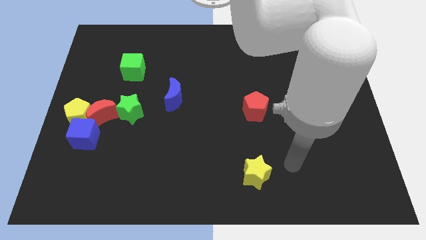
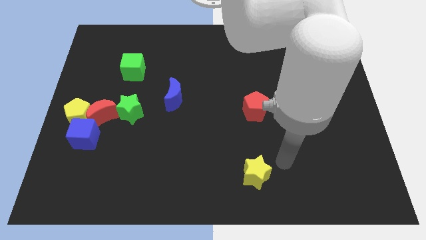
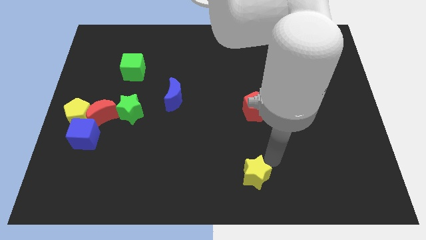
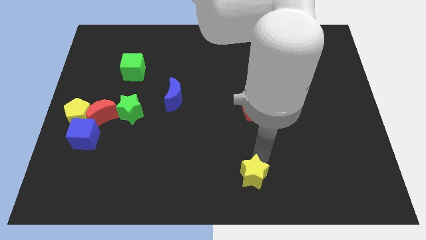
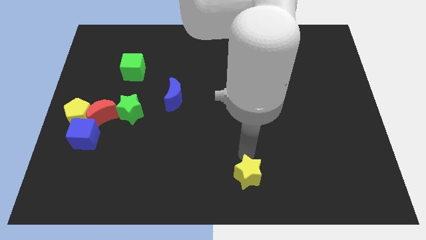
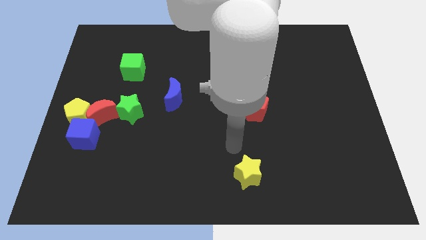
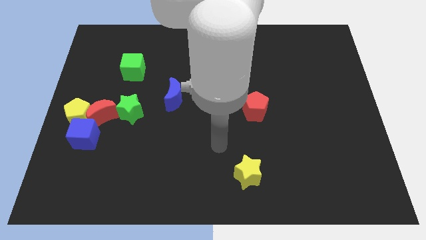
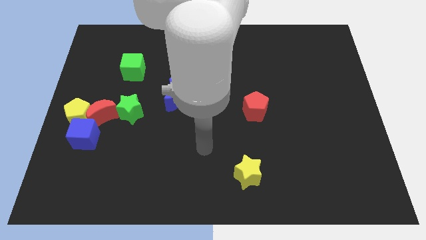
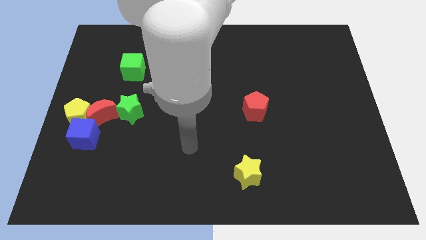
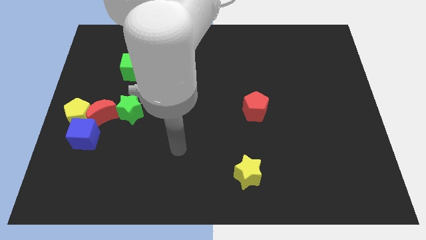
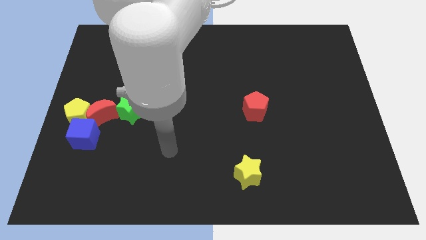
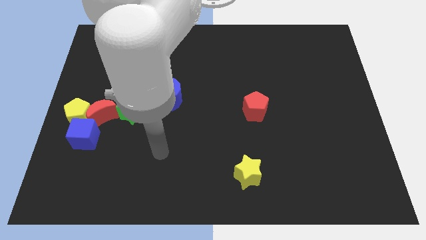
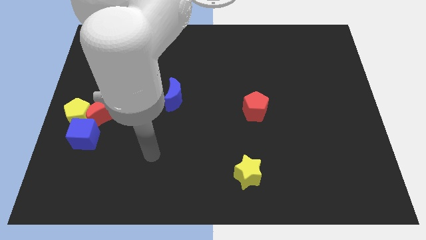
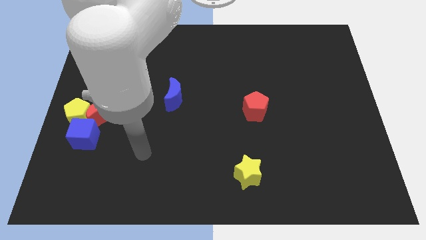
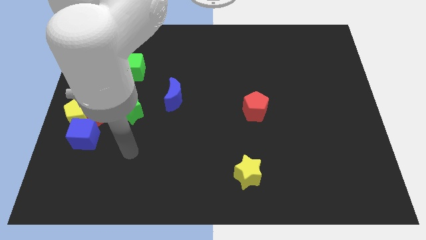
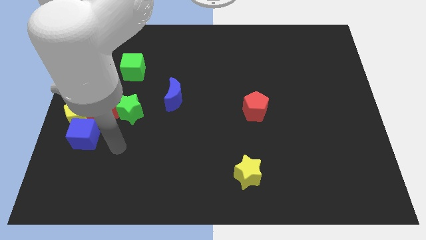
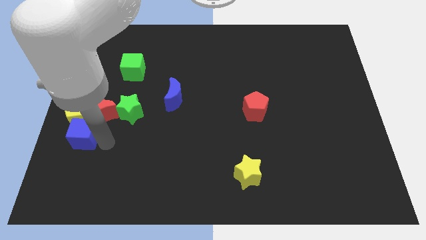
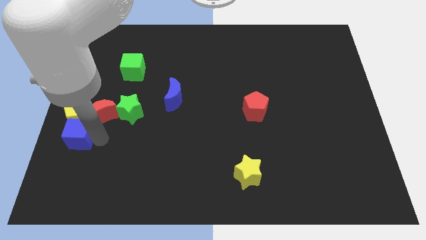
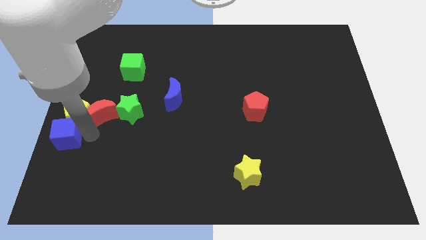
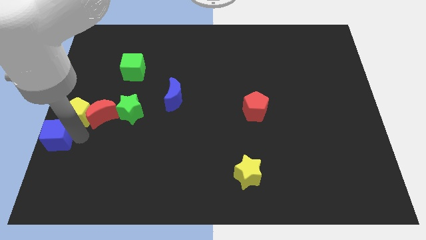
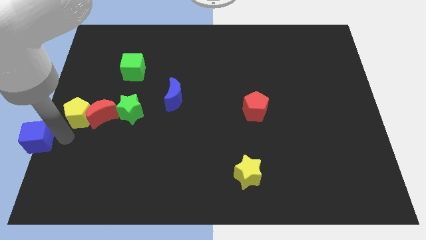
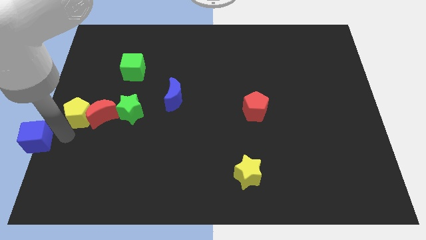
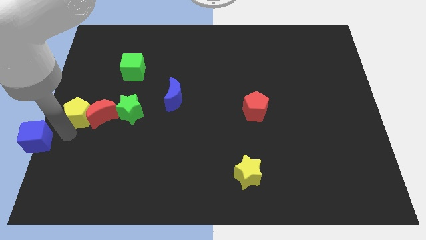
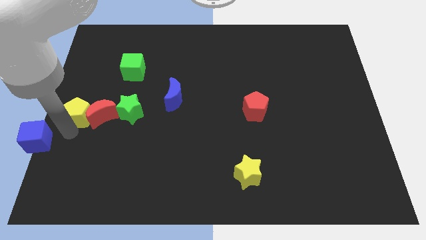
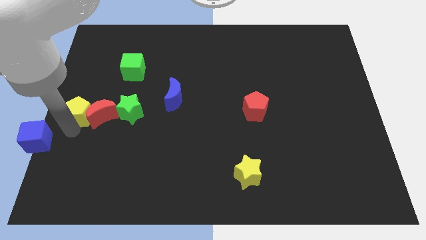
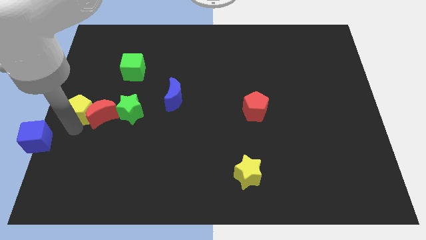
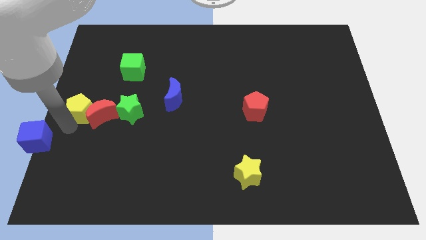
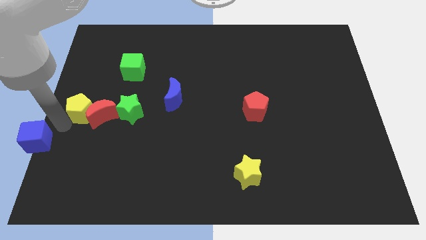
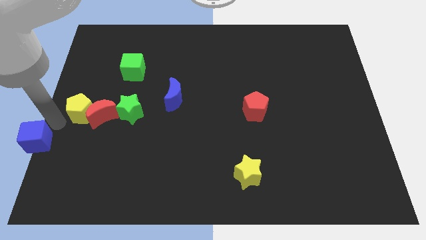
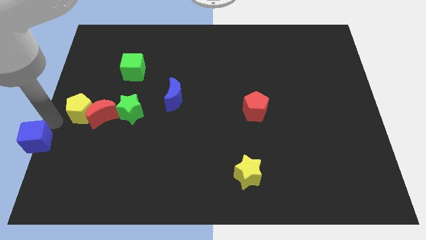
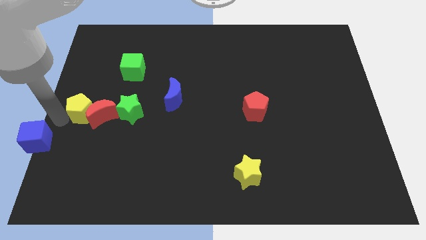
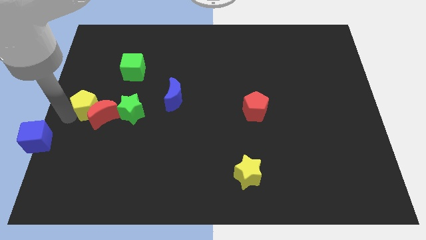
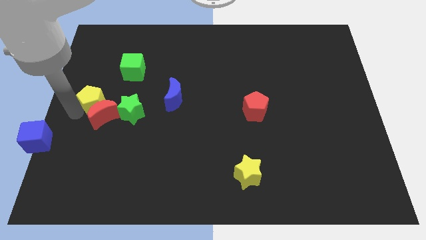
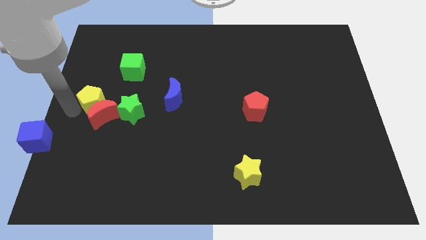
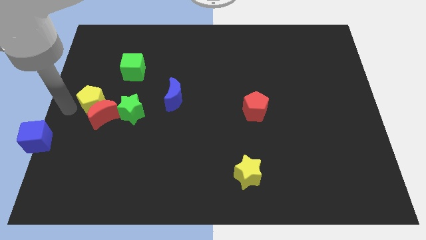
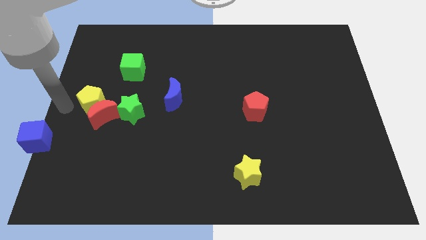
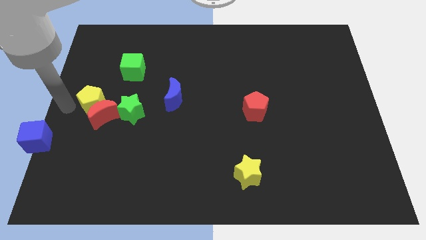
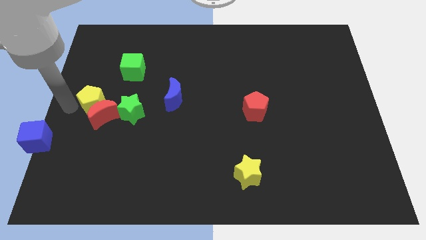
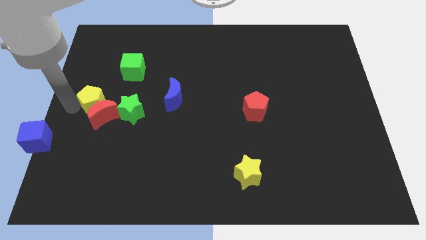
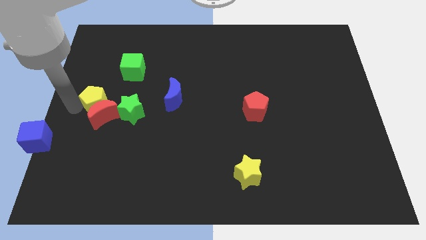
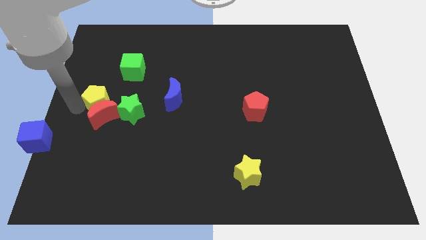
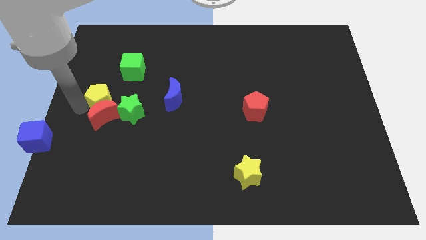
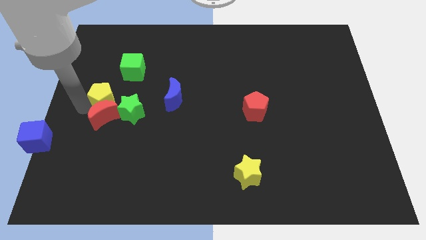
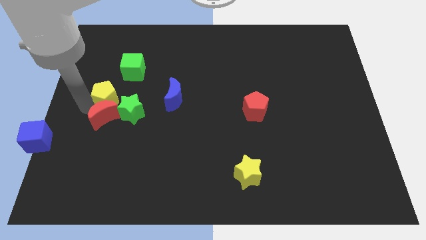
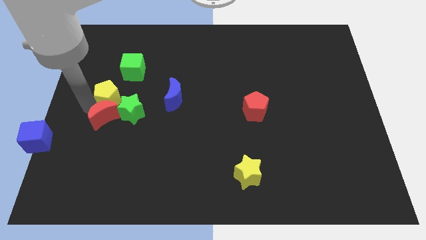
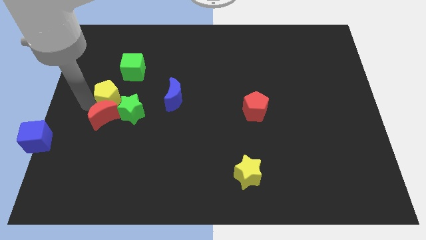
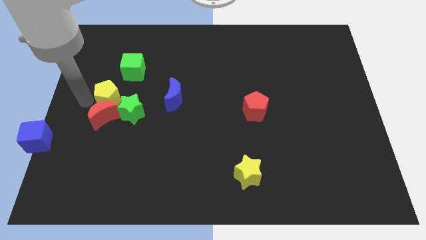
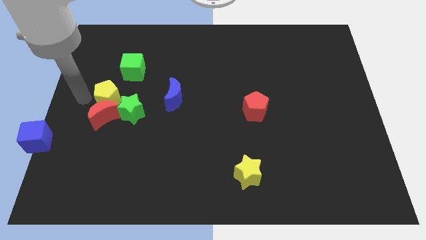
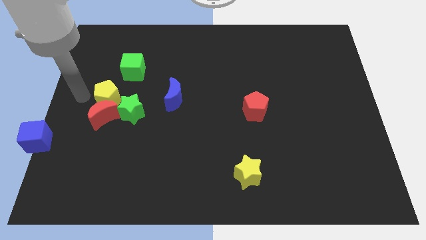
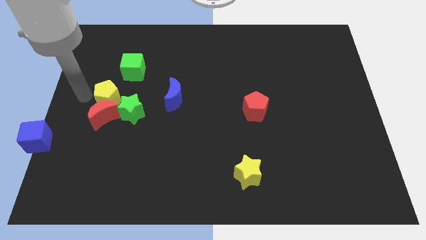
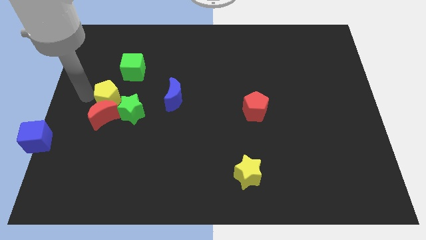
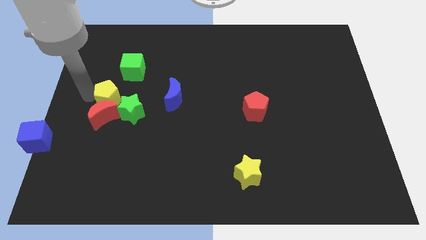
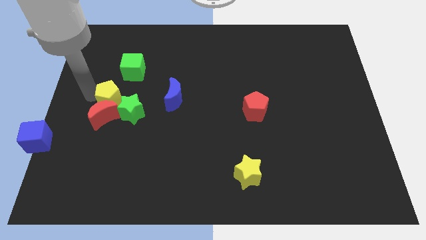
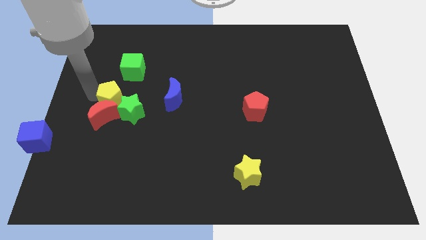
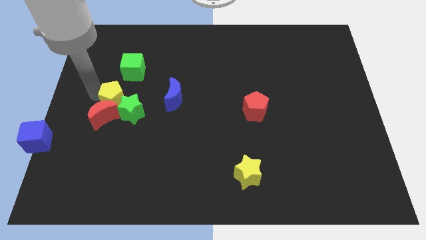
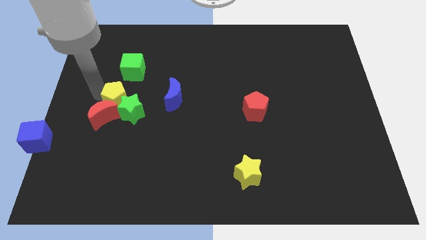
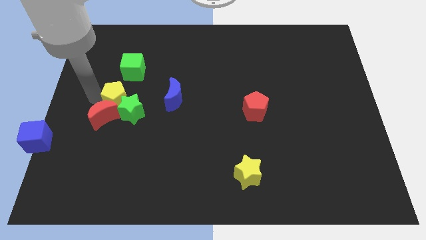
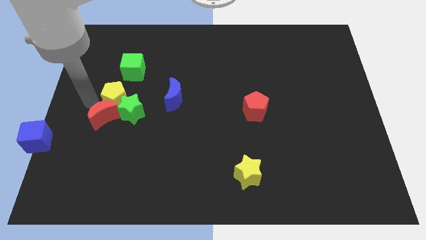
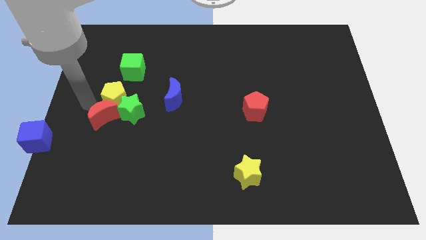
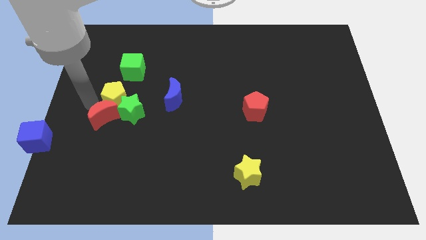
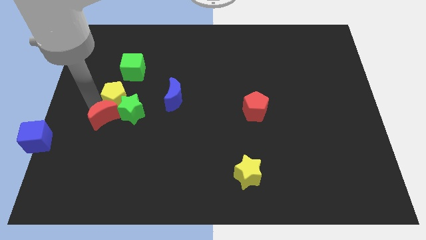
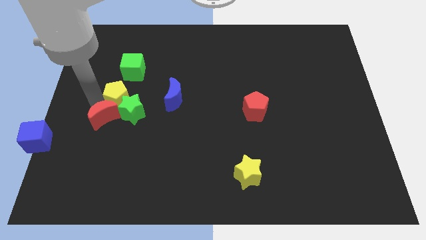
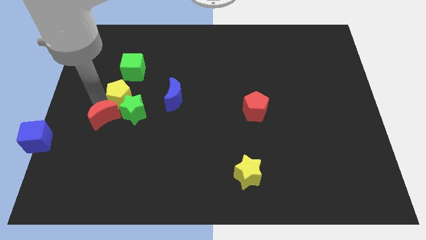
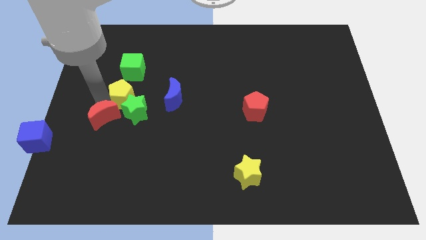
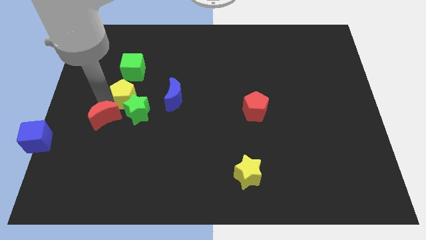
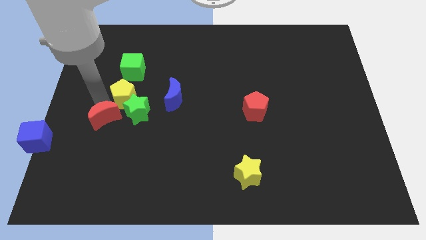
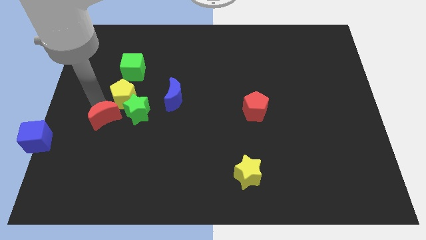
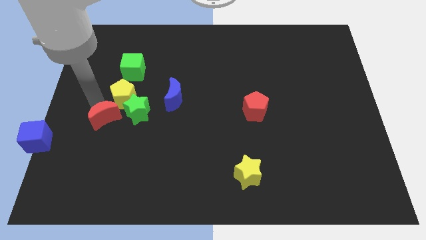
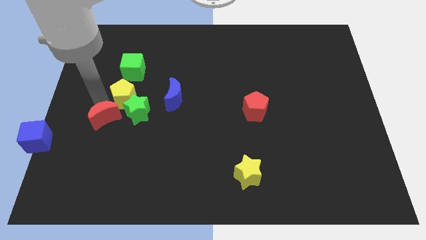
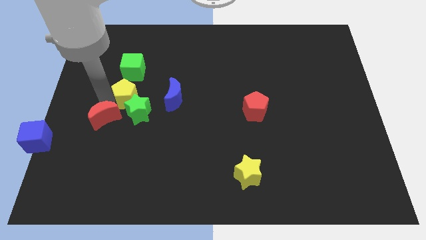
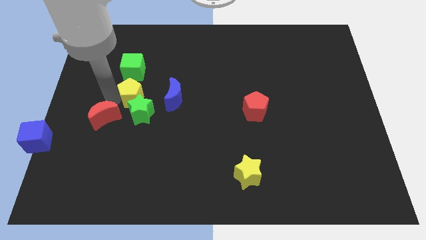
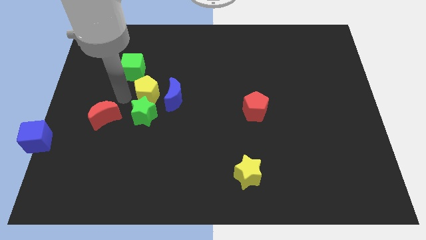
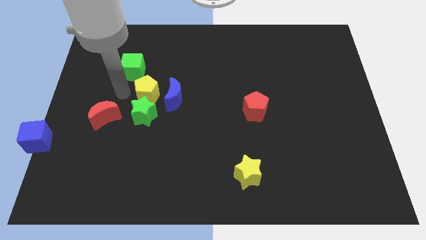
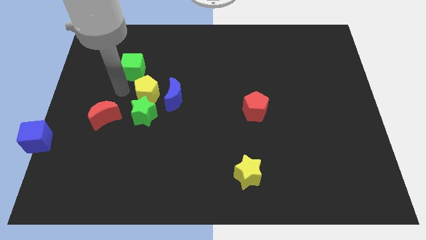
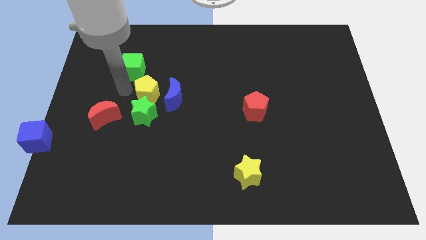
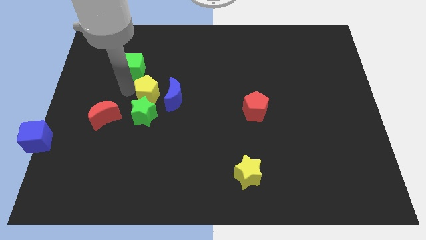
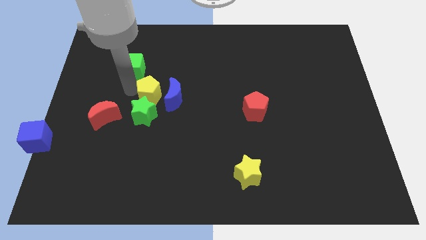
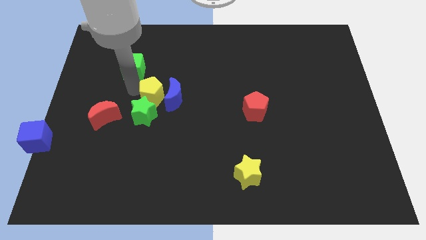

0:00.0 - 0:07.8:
move the yellow pentagon next to the blue moon
